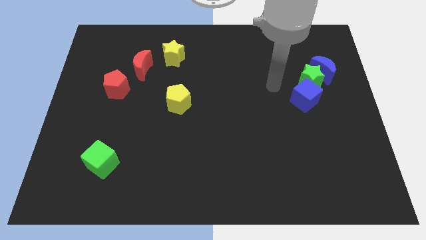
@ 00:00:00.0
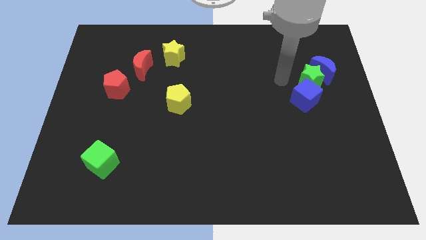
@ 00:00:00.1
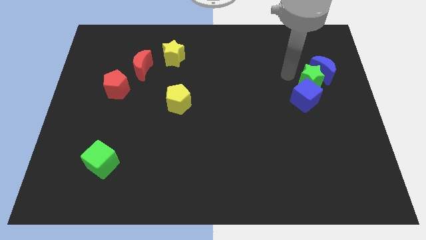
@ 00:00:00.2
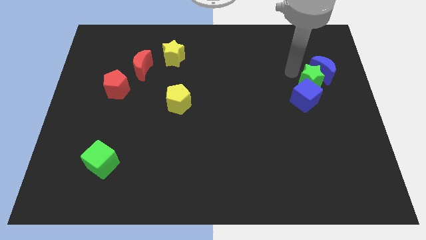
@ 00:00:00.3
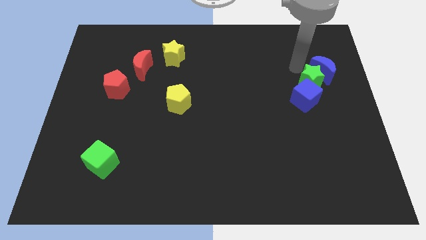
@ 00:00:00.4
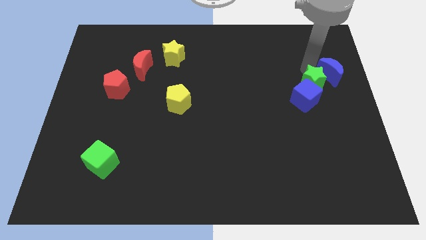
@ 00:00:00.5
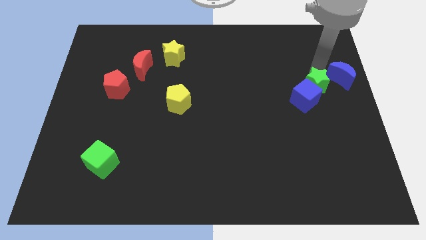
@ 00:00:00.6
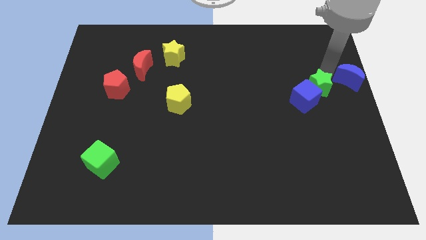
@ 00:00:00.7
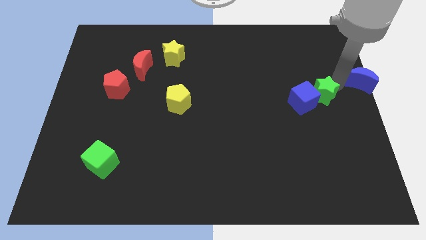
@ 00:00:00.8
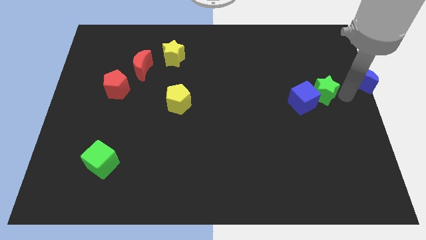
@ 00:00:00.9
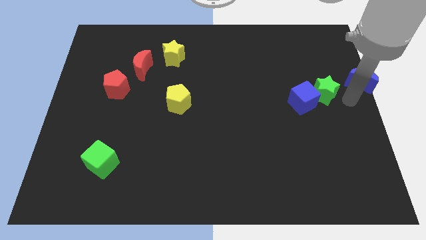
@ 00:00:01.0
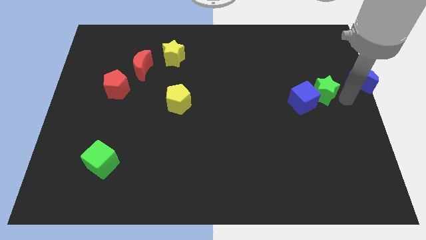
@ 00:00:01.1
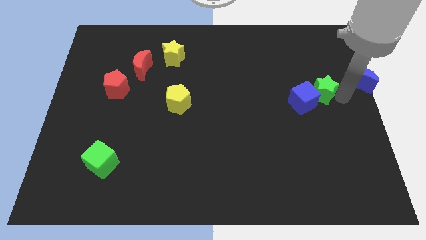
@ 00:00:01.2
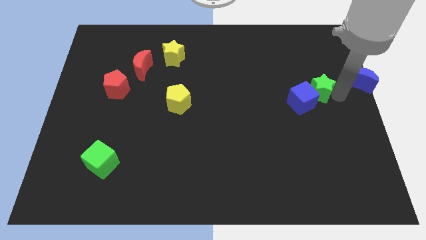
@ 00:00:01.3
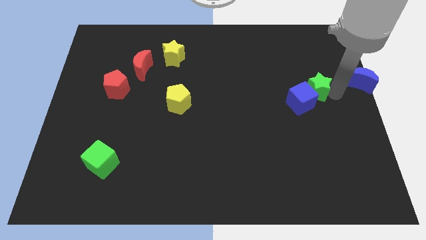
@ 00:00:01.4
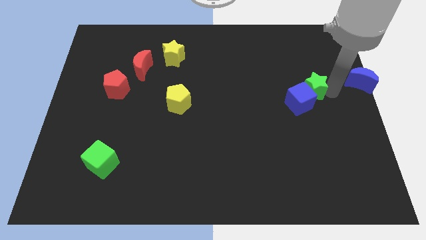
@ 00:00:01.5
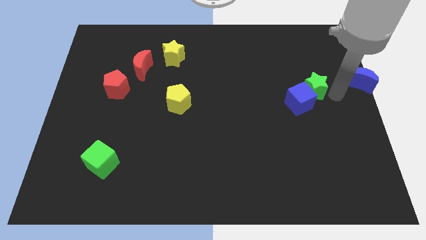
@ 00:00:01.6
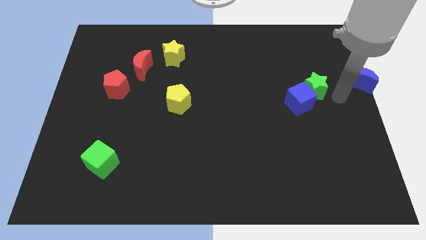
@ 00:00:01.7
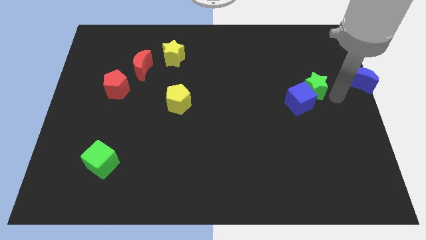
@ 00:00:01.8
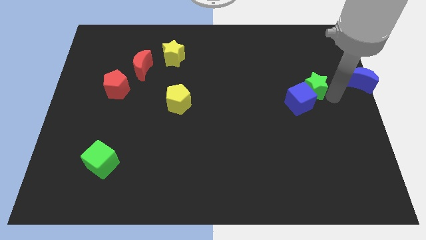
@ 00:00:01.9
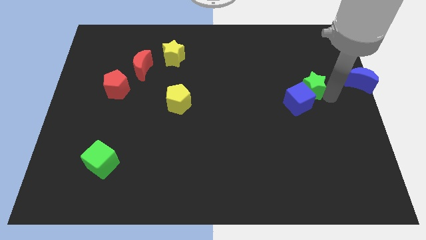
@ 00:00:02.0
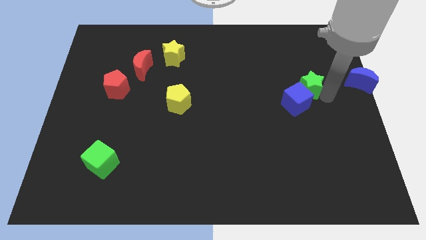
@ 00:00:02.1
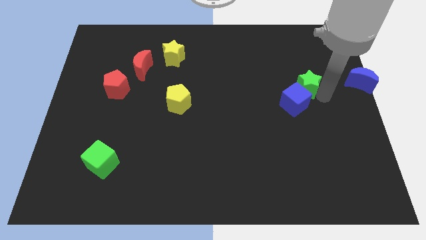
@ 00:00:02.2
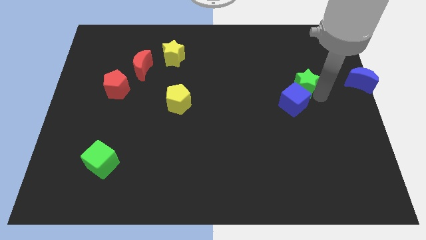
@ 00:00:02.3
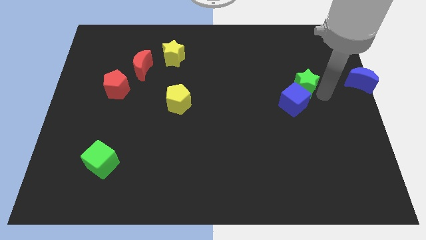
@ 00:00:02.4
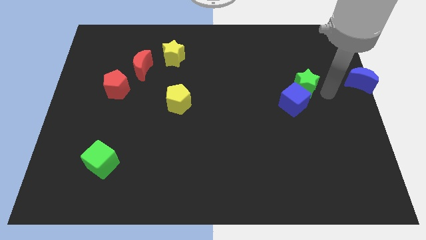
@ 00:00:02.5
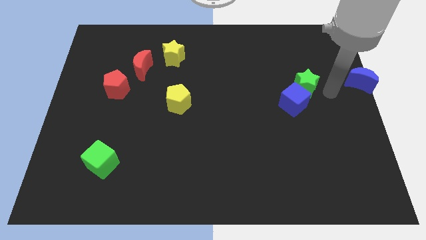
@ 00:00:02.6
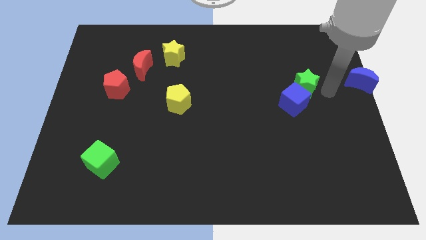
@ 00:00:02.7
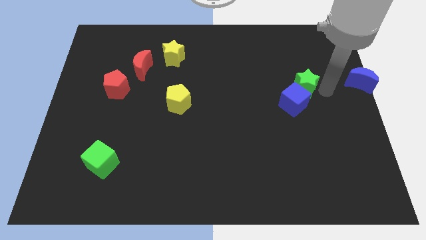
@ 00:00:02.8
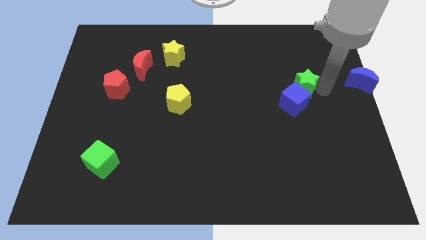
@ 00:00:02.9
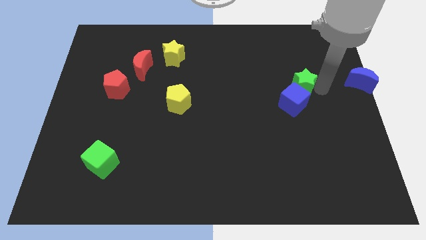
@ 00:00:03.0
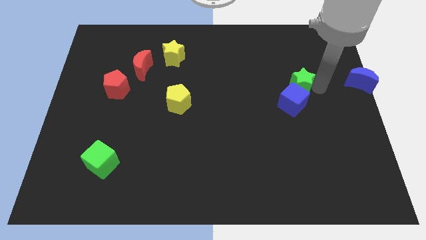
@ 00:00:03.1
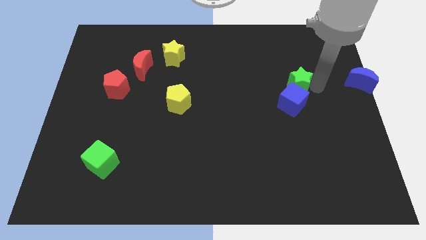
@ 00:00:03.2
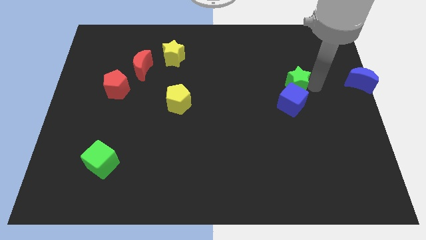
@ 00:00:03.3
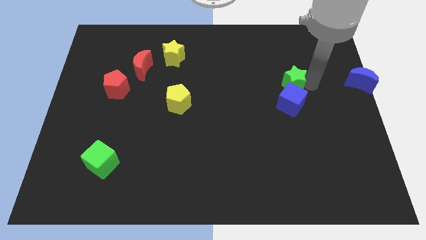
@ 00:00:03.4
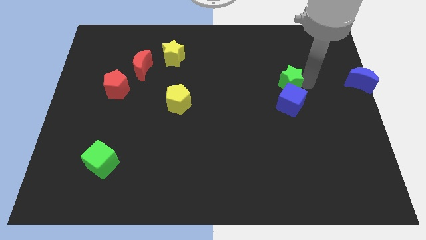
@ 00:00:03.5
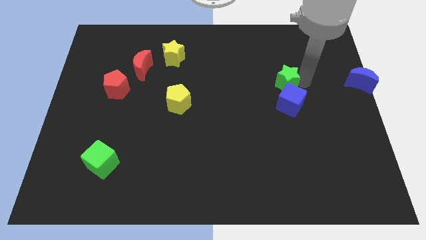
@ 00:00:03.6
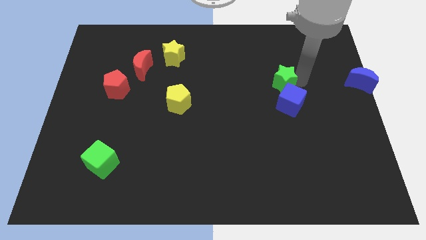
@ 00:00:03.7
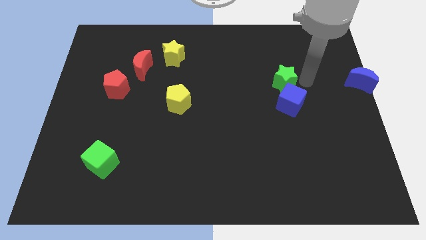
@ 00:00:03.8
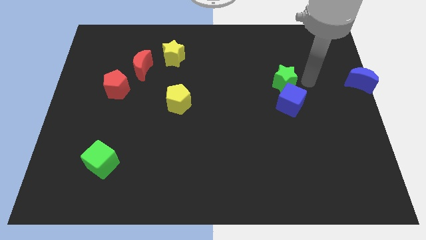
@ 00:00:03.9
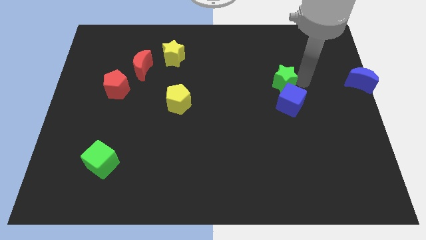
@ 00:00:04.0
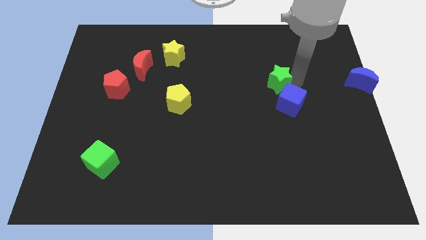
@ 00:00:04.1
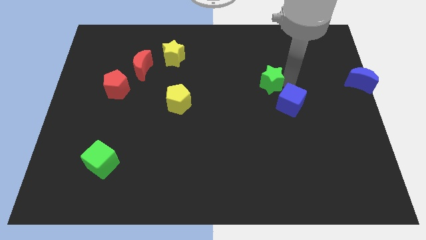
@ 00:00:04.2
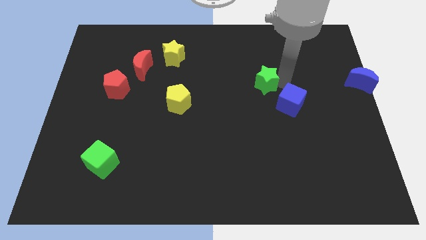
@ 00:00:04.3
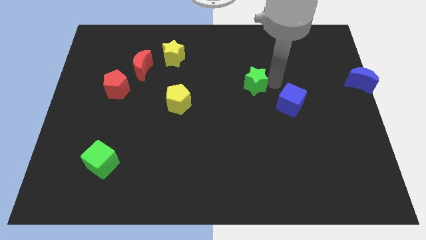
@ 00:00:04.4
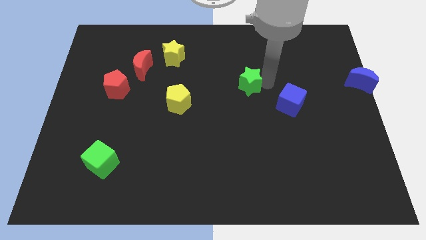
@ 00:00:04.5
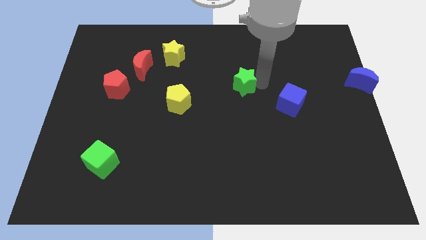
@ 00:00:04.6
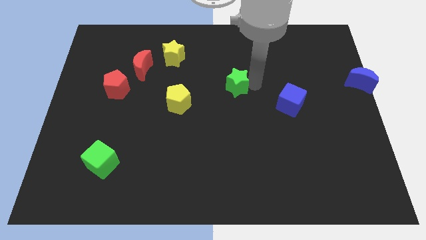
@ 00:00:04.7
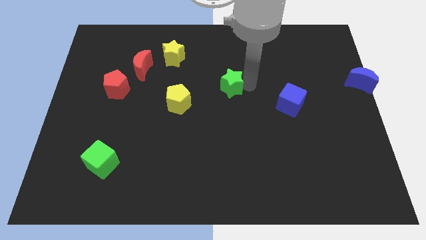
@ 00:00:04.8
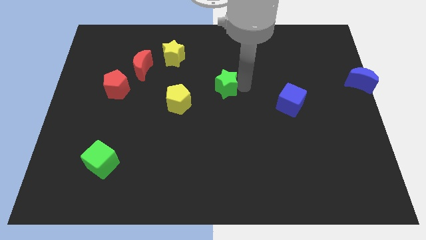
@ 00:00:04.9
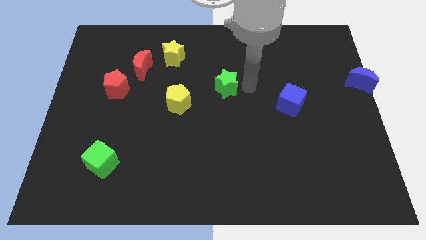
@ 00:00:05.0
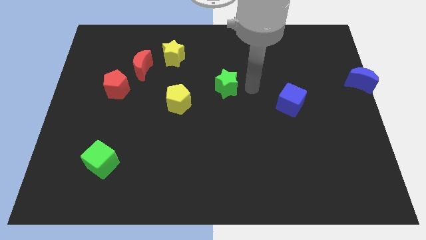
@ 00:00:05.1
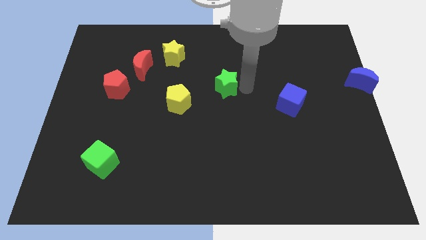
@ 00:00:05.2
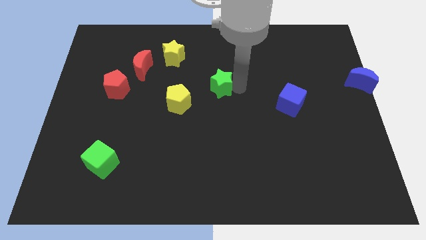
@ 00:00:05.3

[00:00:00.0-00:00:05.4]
put the green star to the top right side of the yellow pentagon

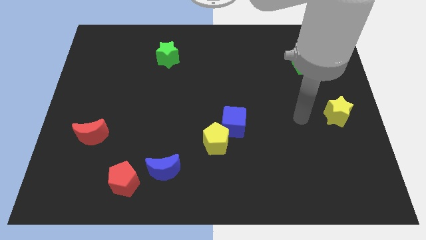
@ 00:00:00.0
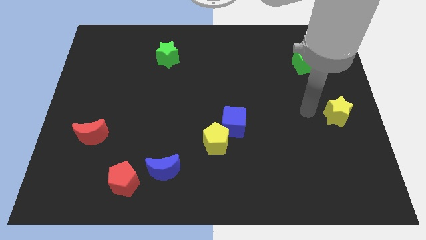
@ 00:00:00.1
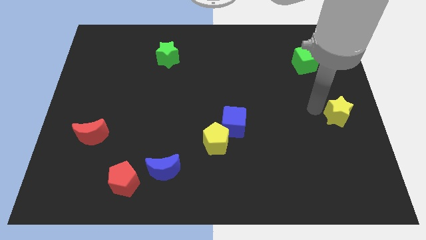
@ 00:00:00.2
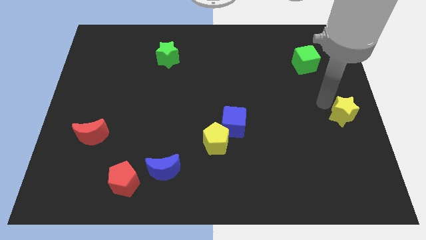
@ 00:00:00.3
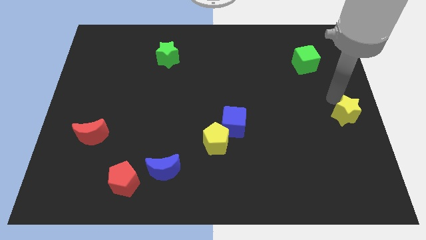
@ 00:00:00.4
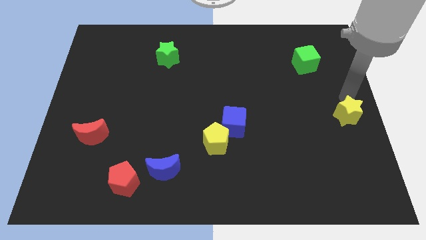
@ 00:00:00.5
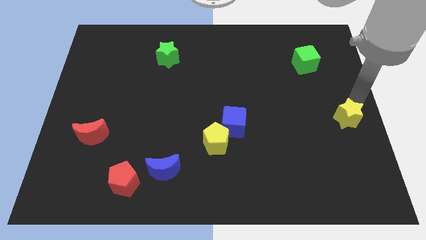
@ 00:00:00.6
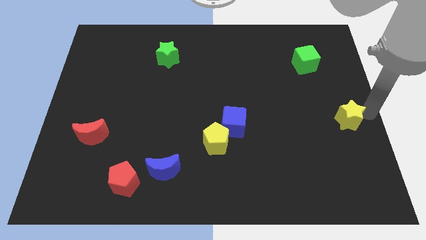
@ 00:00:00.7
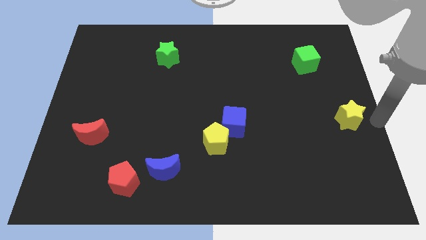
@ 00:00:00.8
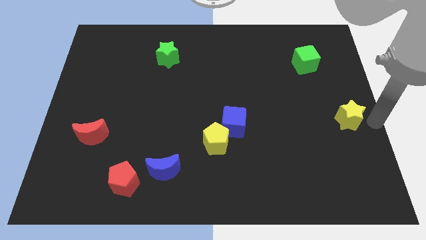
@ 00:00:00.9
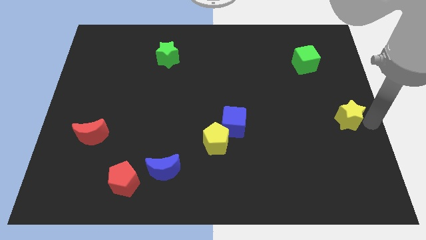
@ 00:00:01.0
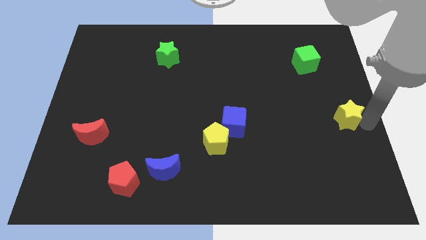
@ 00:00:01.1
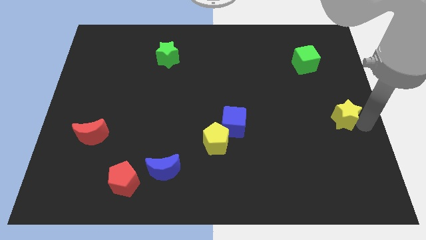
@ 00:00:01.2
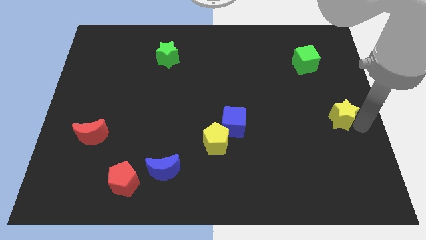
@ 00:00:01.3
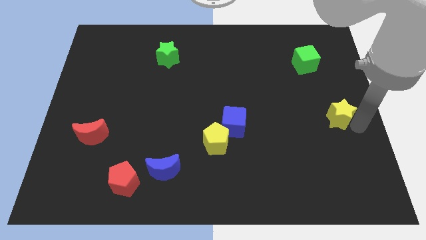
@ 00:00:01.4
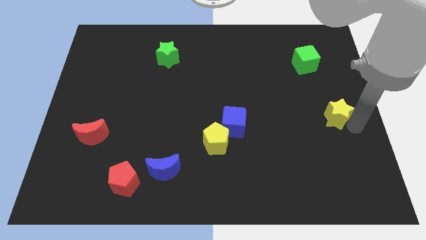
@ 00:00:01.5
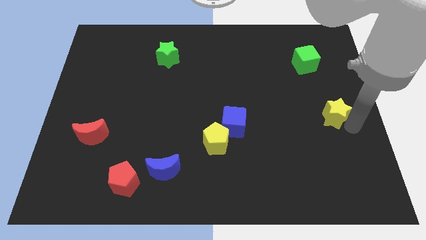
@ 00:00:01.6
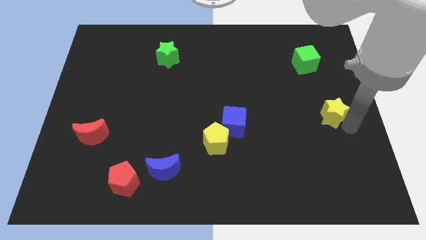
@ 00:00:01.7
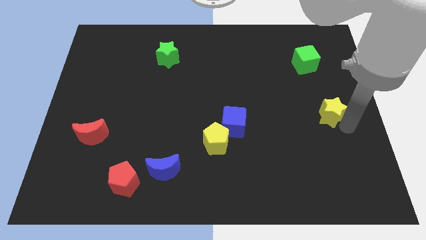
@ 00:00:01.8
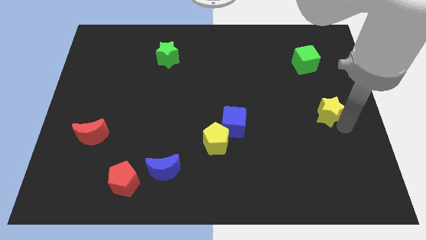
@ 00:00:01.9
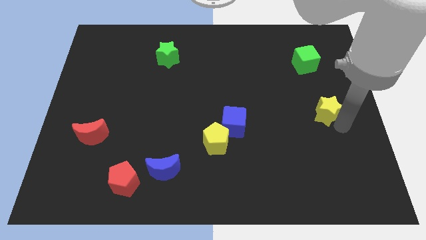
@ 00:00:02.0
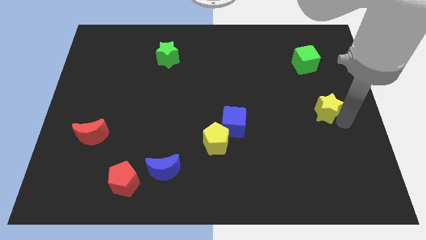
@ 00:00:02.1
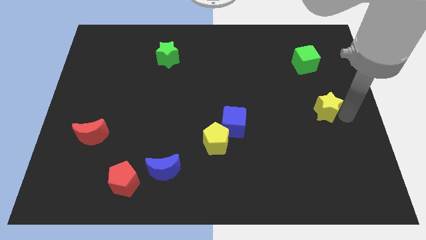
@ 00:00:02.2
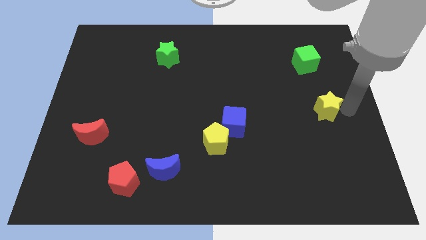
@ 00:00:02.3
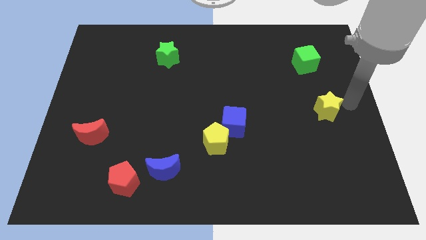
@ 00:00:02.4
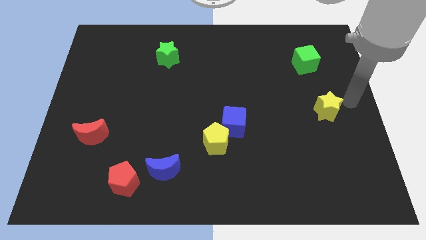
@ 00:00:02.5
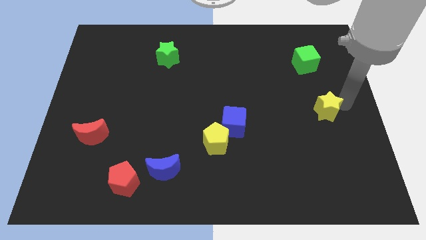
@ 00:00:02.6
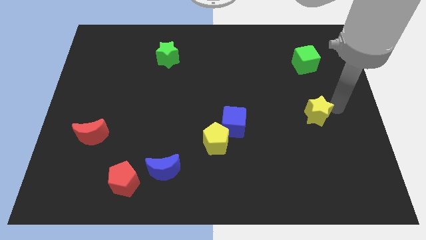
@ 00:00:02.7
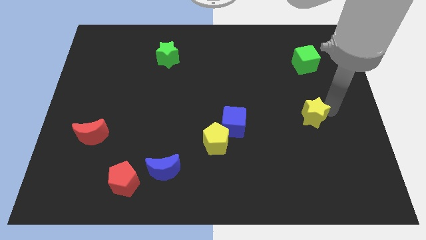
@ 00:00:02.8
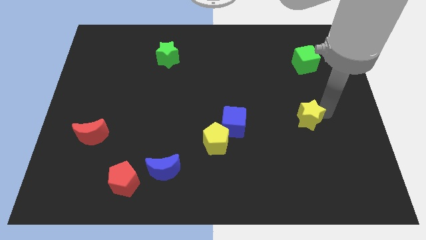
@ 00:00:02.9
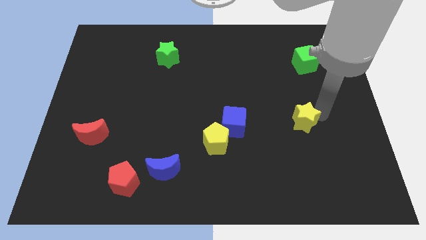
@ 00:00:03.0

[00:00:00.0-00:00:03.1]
push the yellow star right of the blue cube
